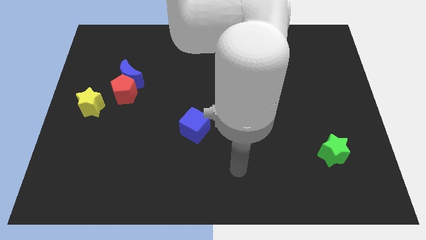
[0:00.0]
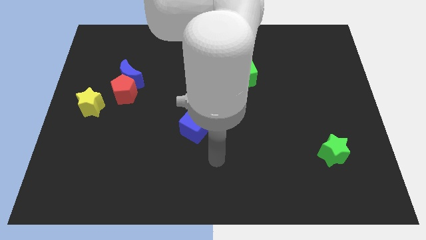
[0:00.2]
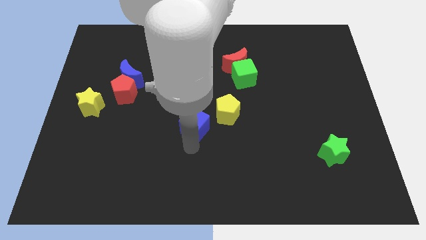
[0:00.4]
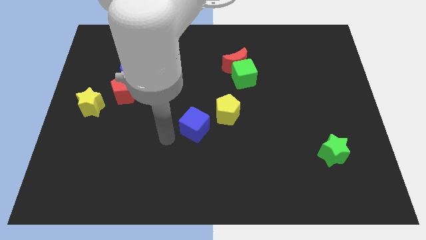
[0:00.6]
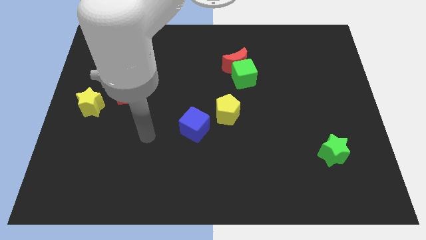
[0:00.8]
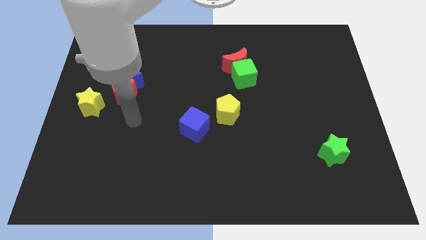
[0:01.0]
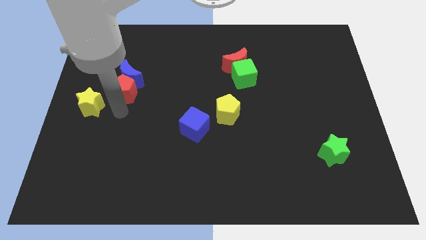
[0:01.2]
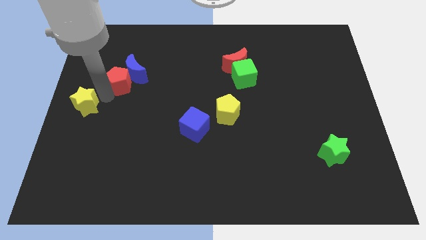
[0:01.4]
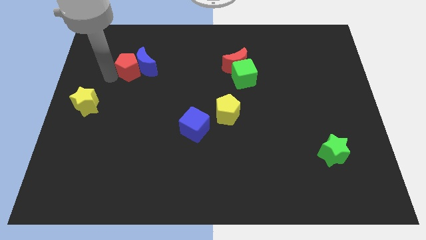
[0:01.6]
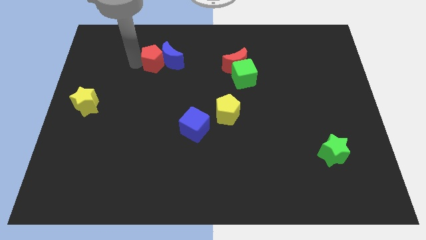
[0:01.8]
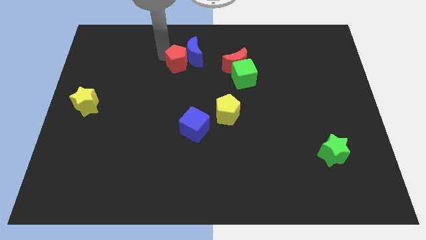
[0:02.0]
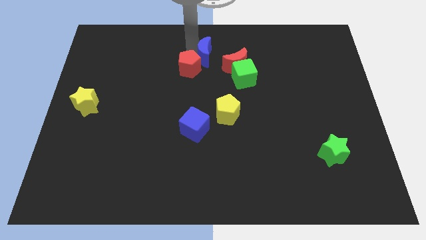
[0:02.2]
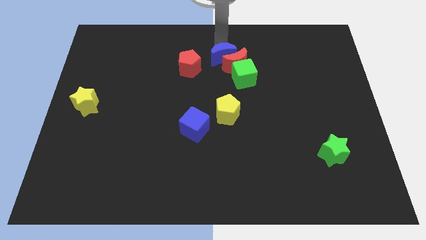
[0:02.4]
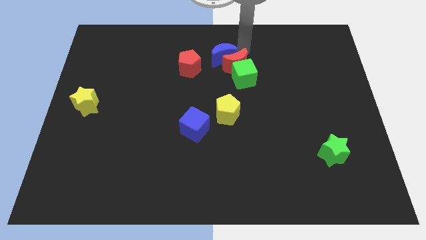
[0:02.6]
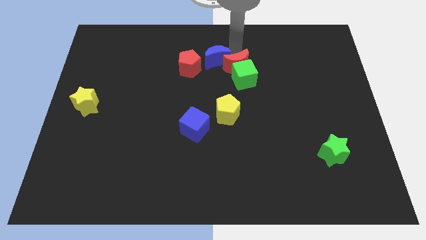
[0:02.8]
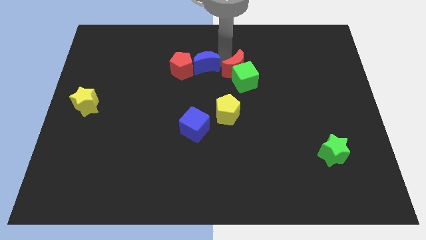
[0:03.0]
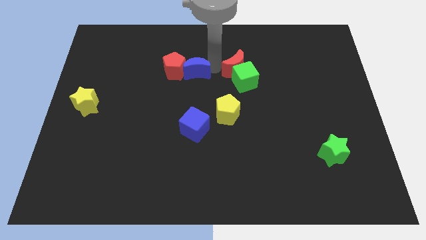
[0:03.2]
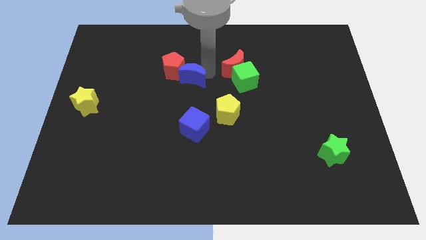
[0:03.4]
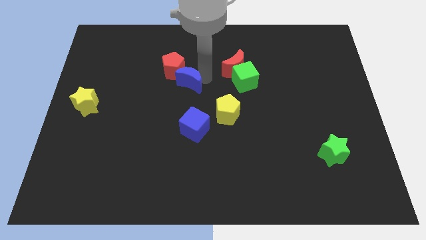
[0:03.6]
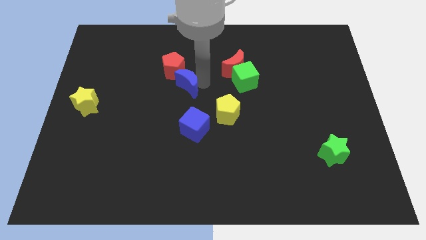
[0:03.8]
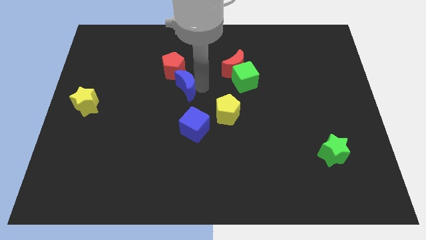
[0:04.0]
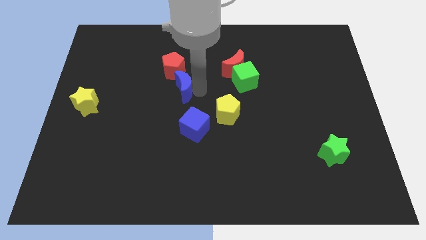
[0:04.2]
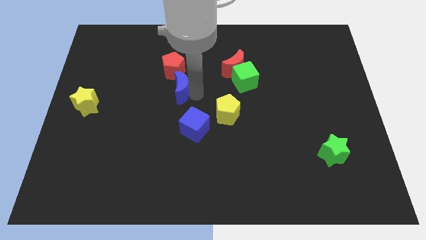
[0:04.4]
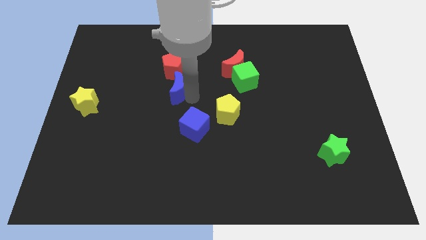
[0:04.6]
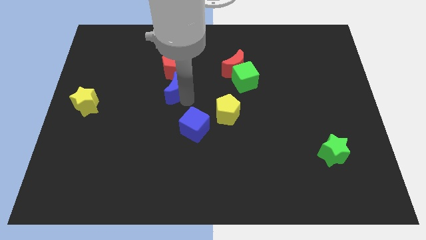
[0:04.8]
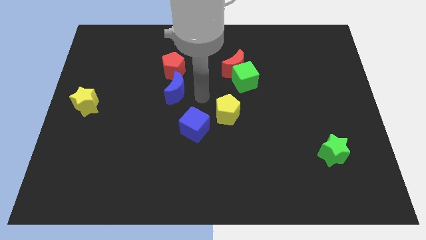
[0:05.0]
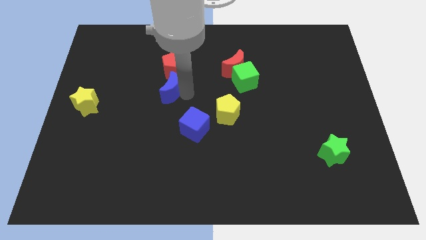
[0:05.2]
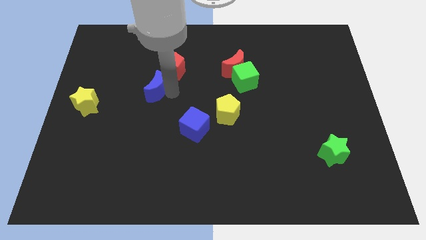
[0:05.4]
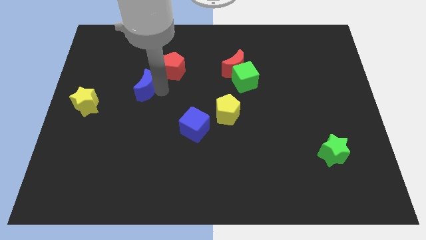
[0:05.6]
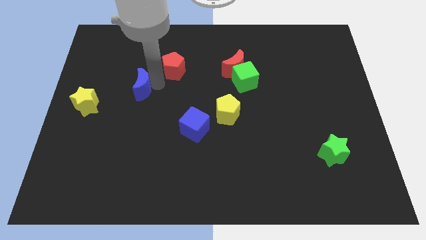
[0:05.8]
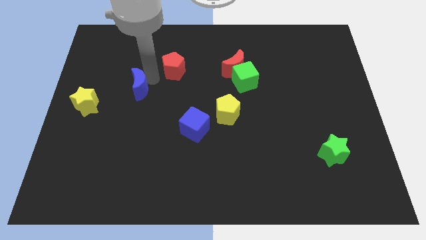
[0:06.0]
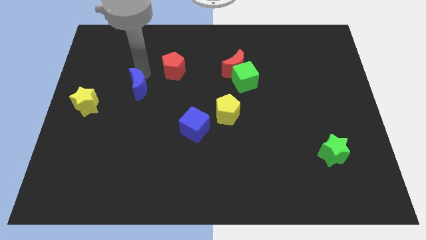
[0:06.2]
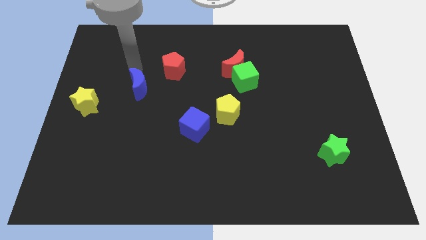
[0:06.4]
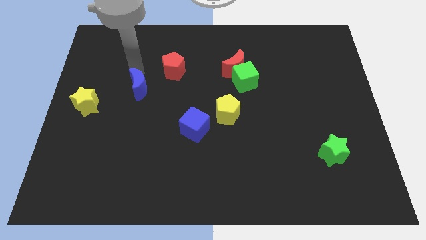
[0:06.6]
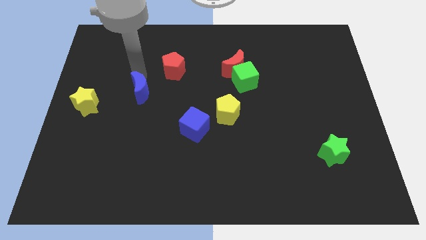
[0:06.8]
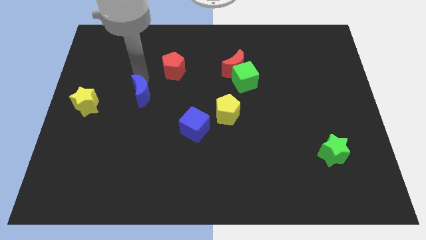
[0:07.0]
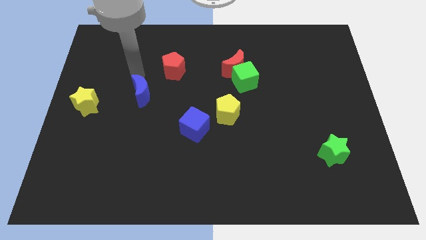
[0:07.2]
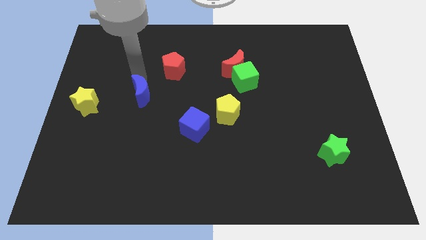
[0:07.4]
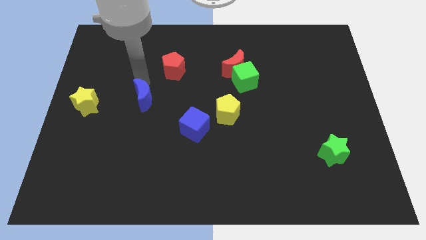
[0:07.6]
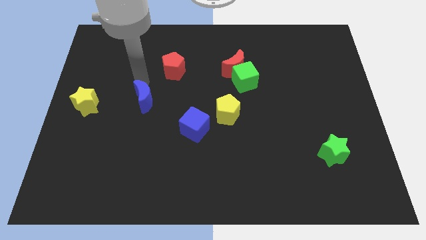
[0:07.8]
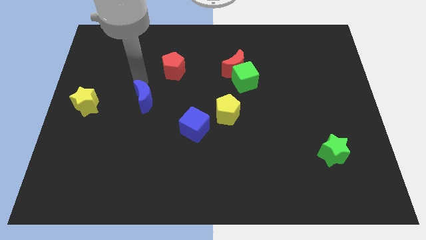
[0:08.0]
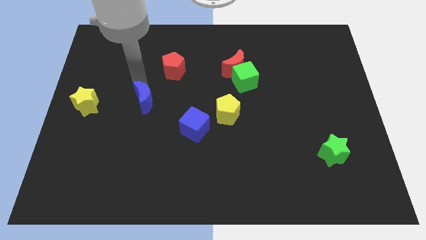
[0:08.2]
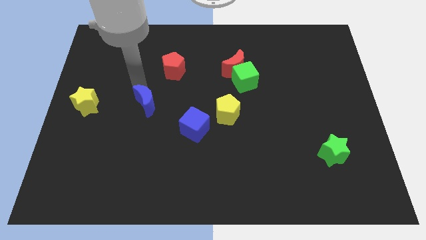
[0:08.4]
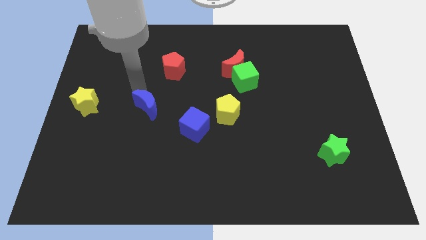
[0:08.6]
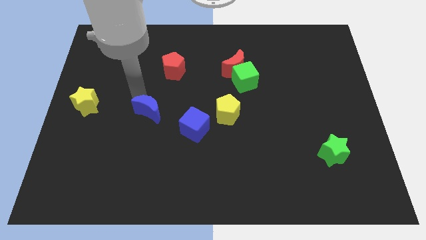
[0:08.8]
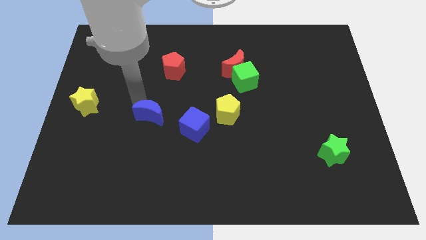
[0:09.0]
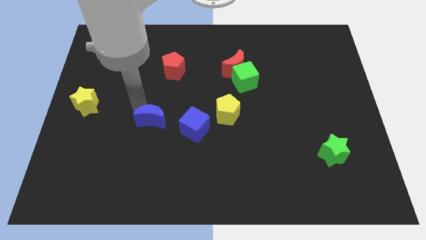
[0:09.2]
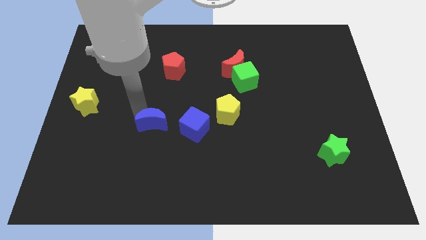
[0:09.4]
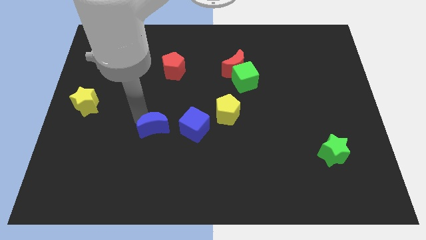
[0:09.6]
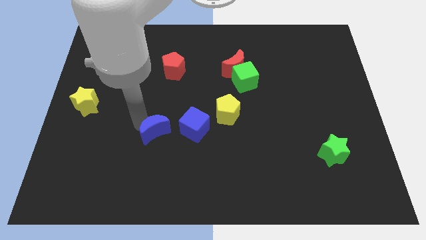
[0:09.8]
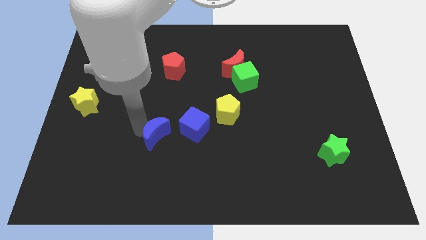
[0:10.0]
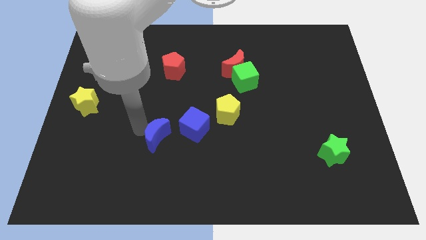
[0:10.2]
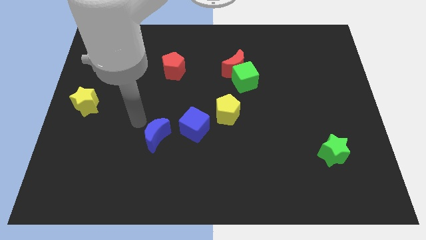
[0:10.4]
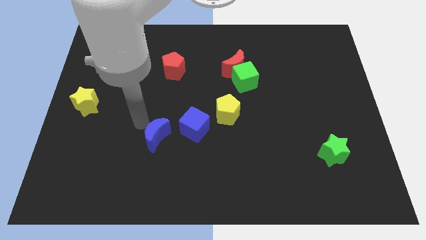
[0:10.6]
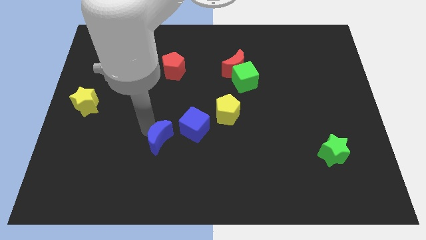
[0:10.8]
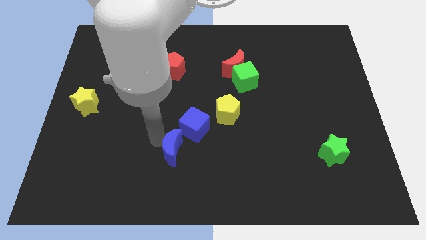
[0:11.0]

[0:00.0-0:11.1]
move the blue moon diagonally downwards and to the right

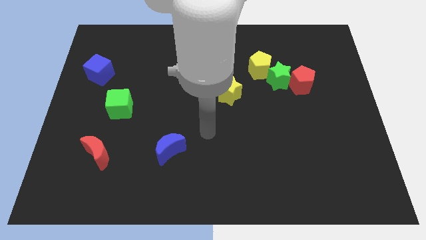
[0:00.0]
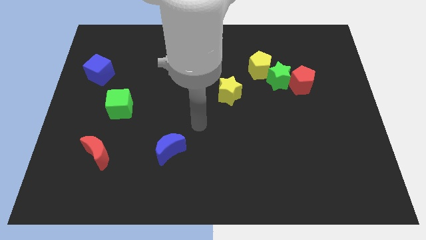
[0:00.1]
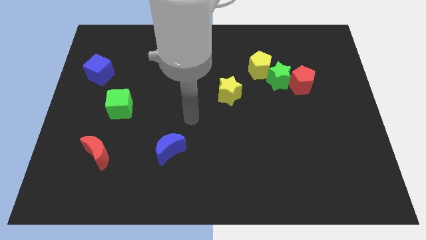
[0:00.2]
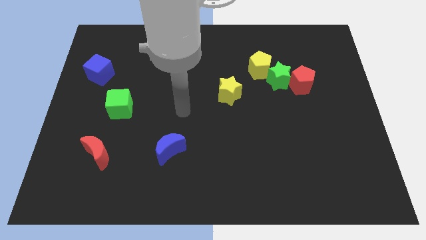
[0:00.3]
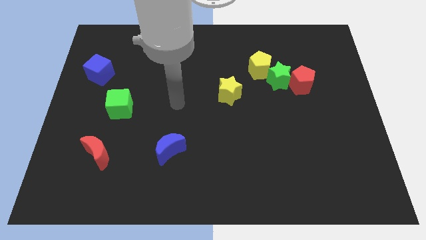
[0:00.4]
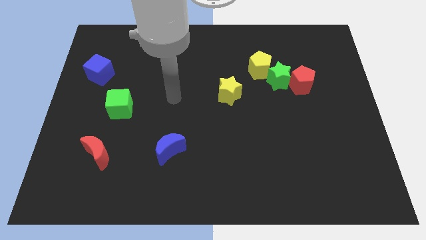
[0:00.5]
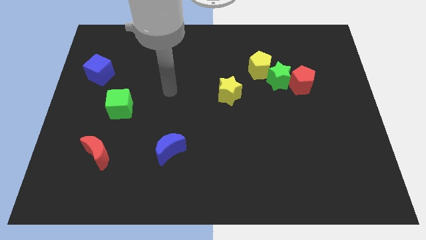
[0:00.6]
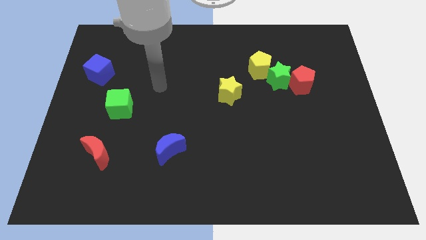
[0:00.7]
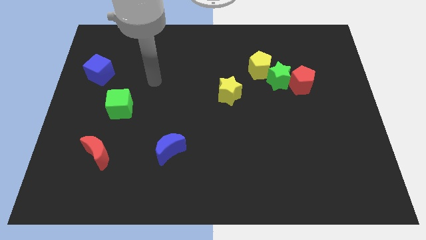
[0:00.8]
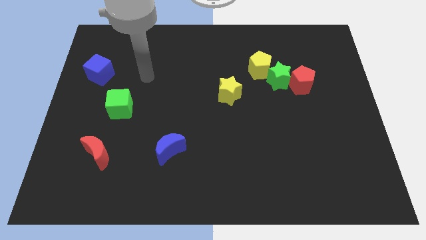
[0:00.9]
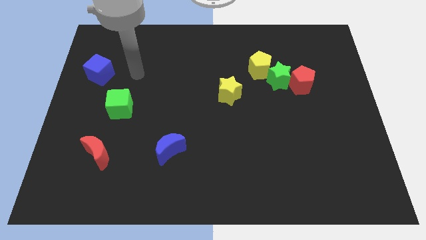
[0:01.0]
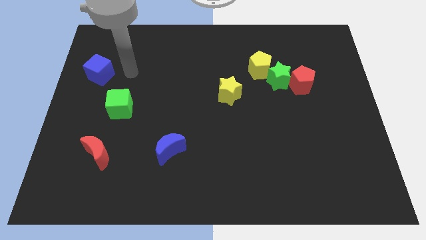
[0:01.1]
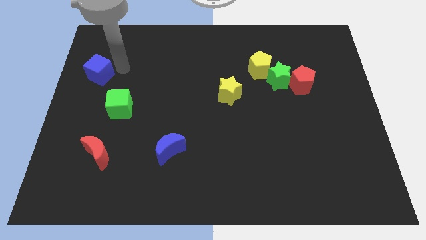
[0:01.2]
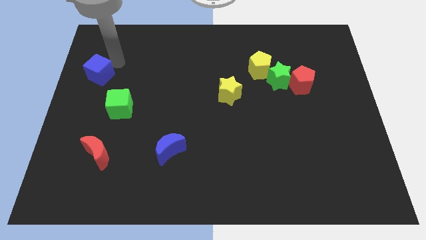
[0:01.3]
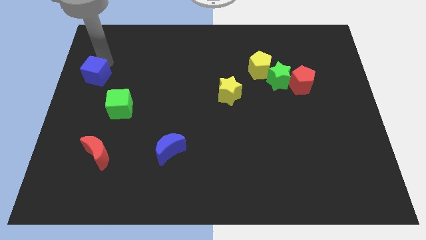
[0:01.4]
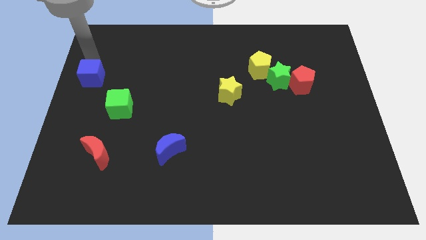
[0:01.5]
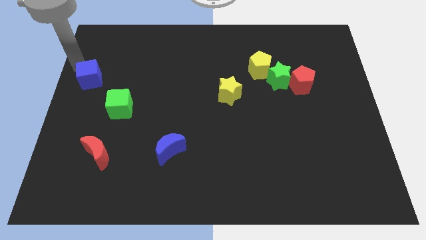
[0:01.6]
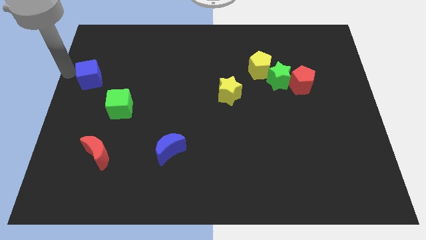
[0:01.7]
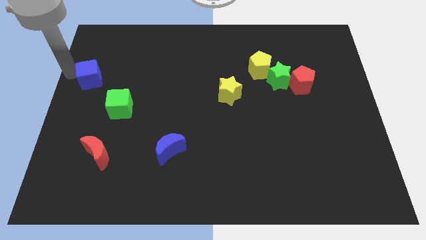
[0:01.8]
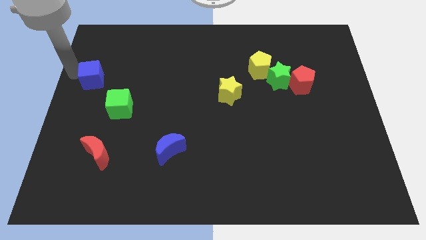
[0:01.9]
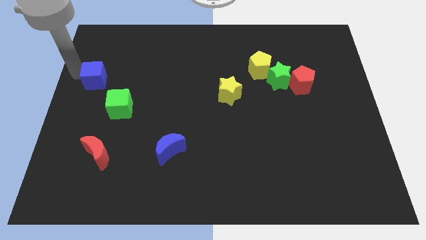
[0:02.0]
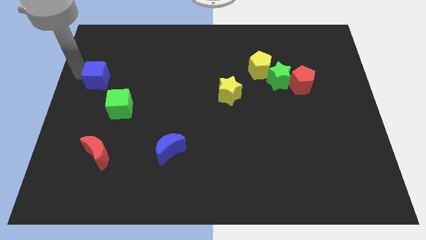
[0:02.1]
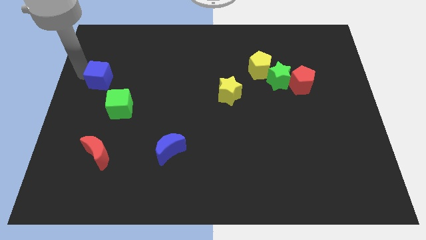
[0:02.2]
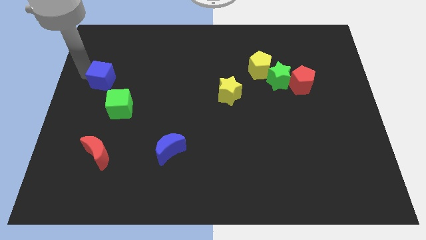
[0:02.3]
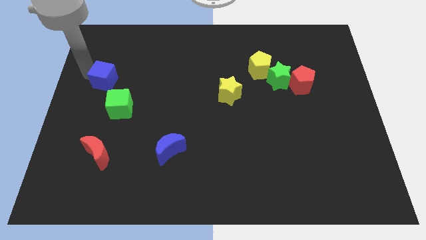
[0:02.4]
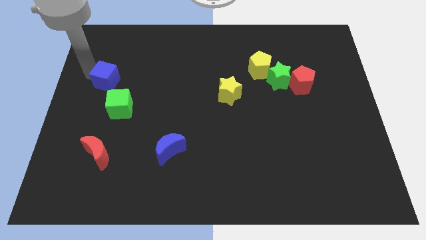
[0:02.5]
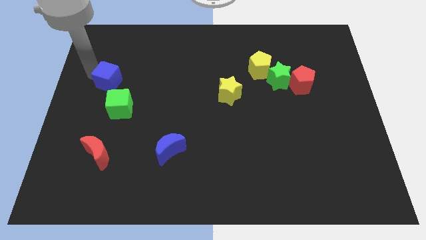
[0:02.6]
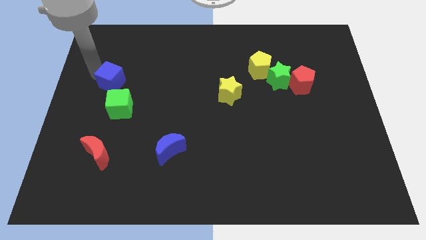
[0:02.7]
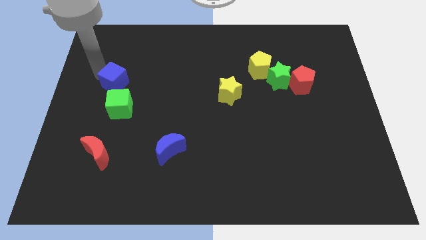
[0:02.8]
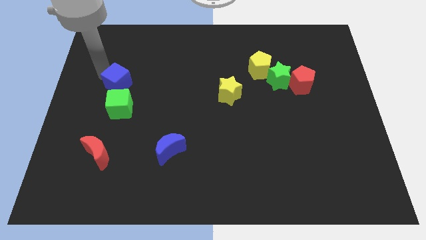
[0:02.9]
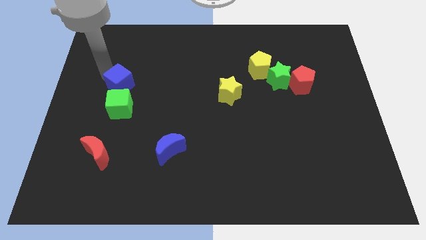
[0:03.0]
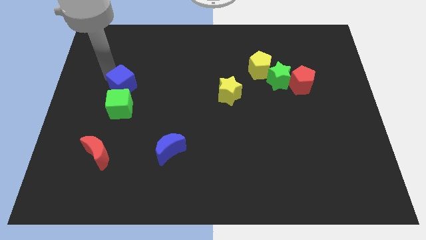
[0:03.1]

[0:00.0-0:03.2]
slightly slide the blue cube downwards and then right
